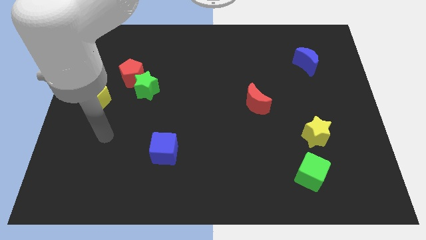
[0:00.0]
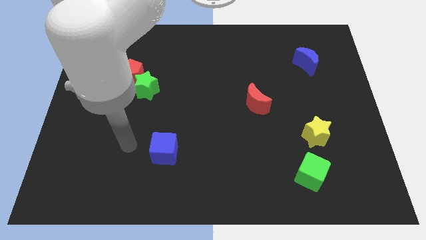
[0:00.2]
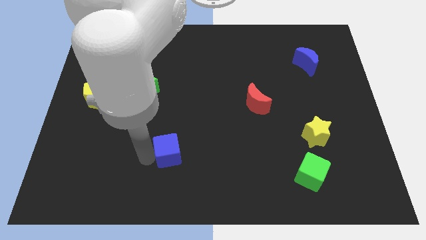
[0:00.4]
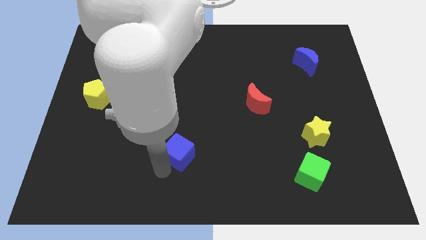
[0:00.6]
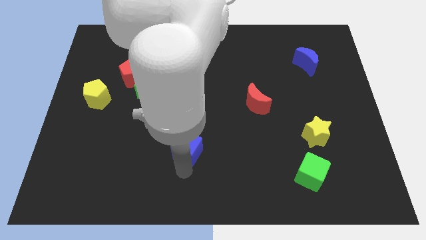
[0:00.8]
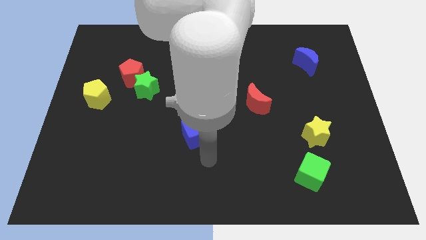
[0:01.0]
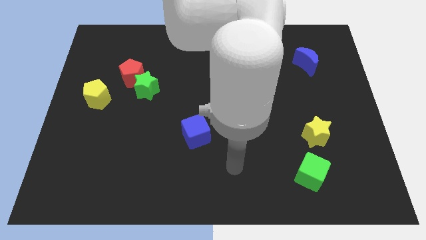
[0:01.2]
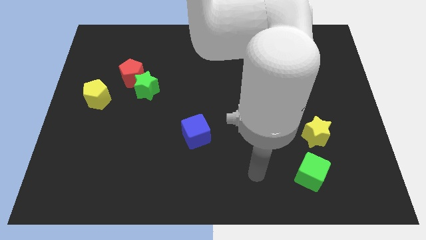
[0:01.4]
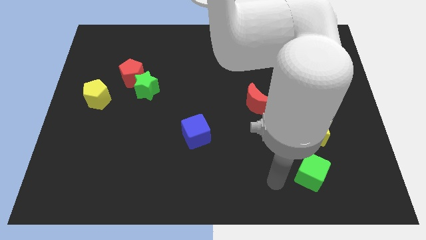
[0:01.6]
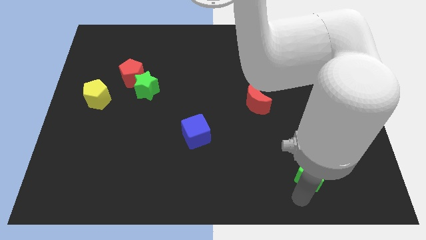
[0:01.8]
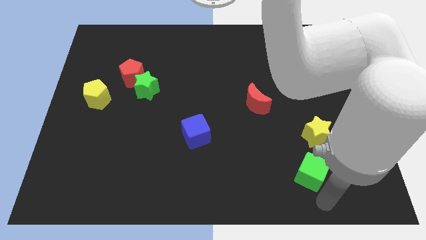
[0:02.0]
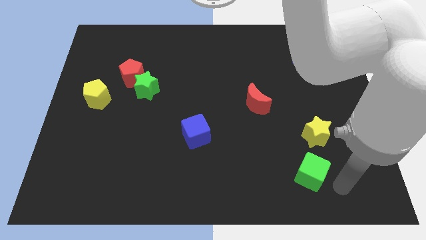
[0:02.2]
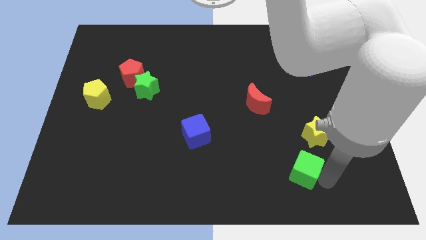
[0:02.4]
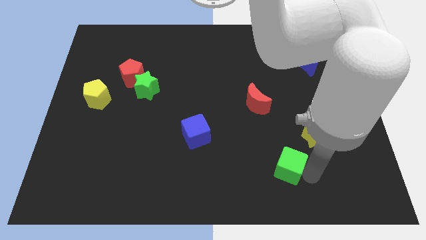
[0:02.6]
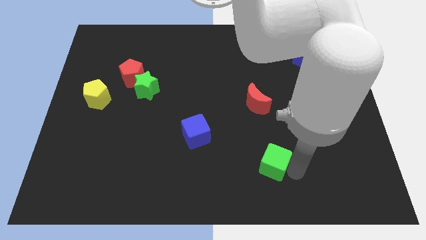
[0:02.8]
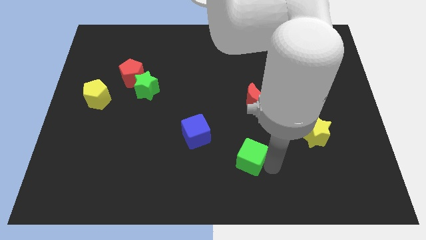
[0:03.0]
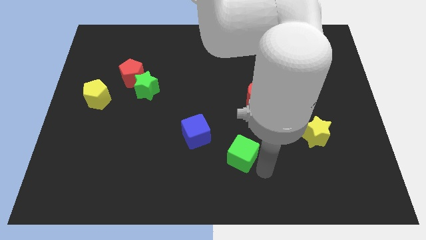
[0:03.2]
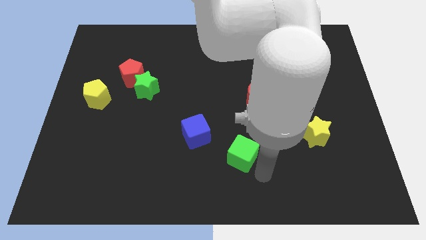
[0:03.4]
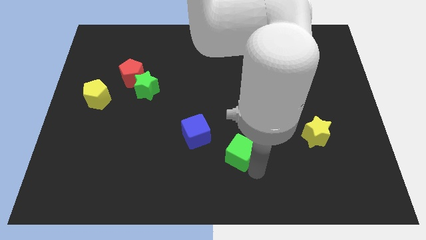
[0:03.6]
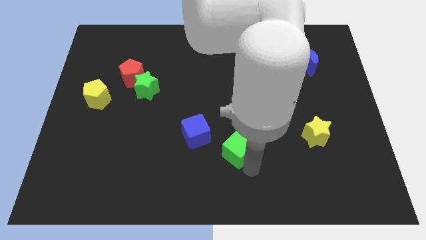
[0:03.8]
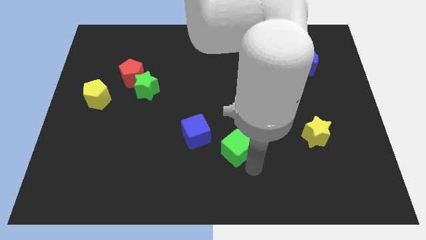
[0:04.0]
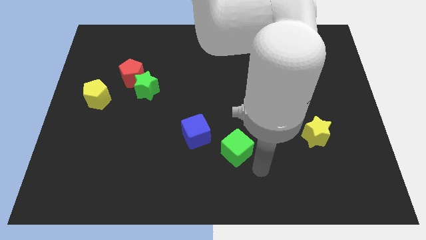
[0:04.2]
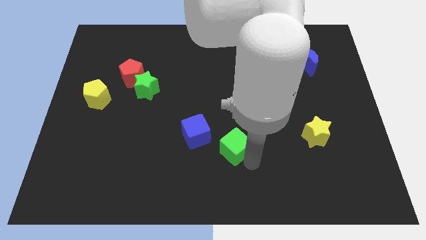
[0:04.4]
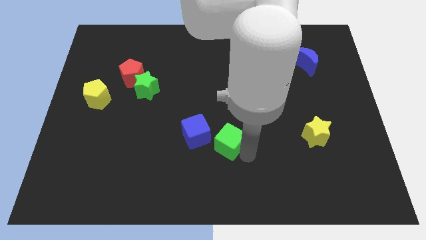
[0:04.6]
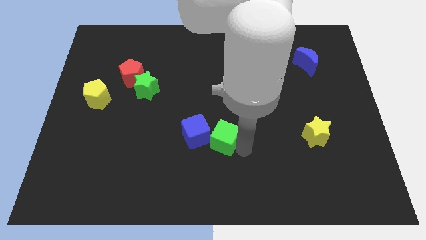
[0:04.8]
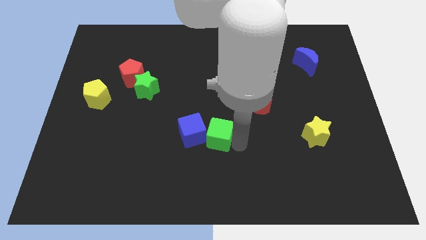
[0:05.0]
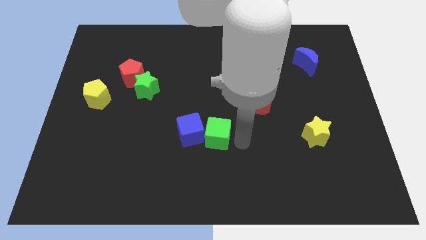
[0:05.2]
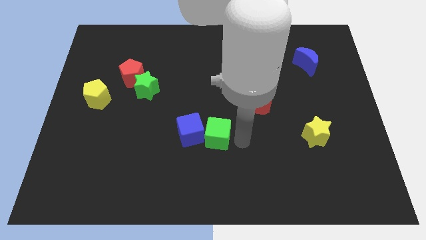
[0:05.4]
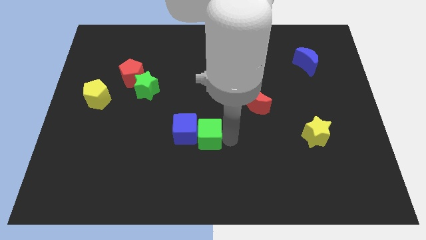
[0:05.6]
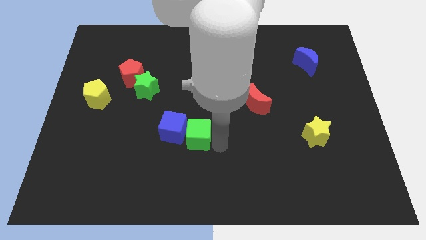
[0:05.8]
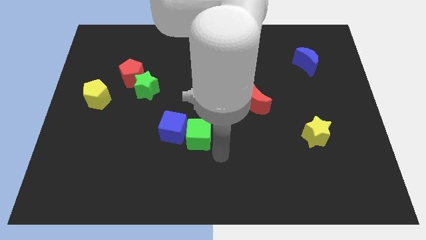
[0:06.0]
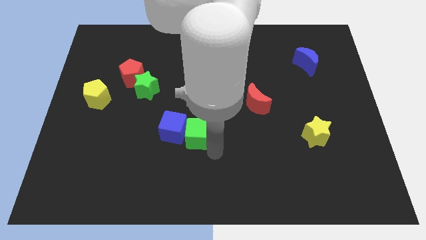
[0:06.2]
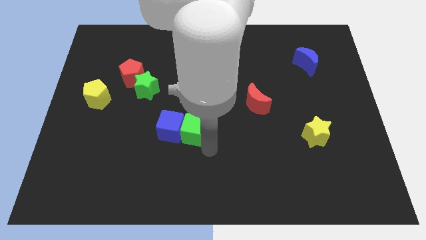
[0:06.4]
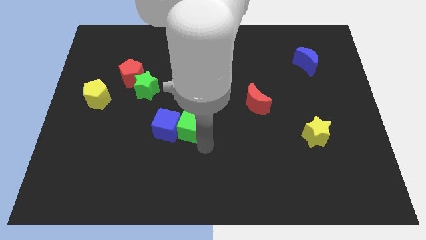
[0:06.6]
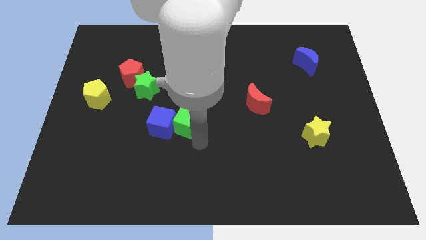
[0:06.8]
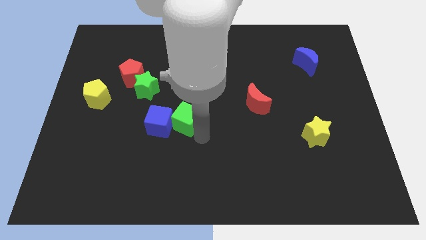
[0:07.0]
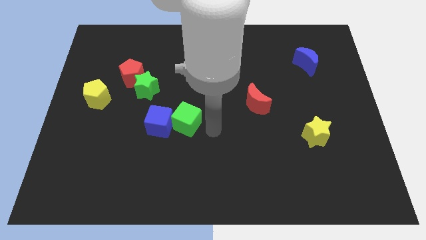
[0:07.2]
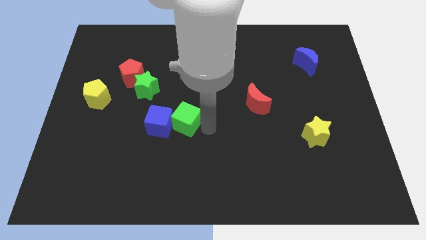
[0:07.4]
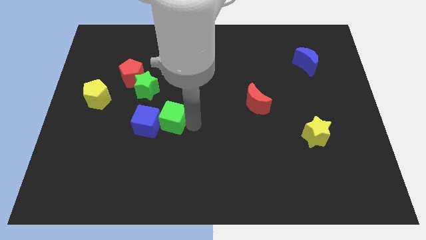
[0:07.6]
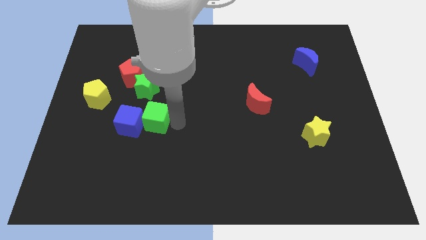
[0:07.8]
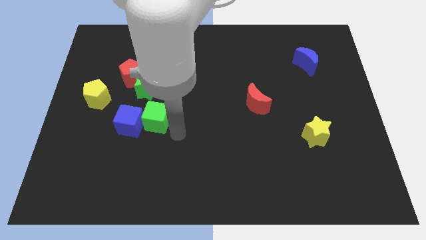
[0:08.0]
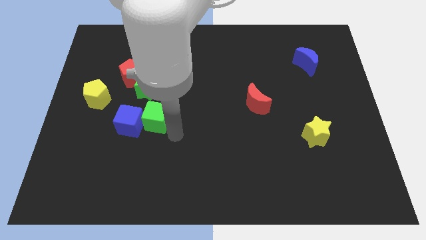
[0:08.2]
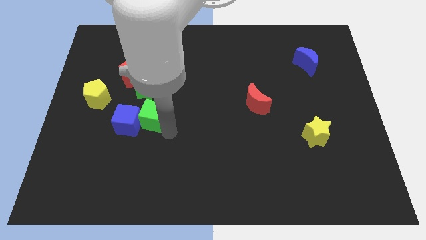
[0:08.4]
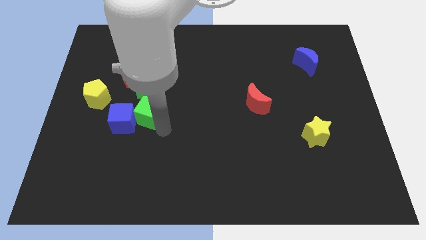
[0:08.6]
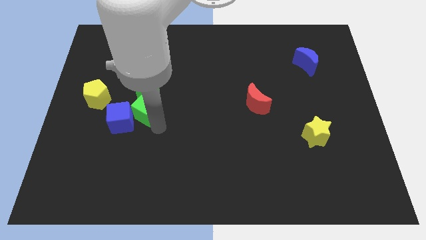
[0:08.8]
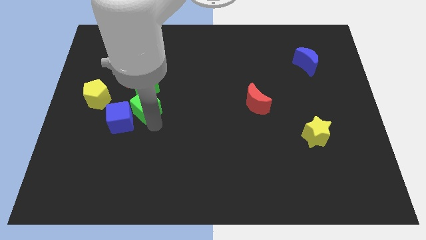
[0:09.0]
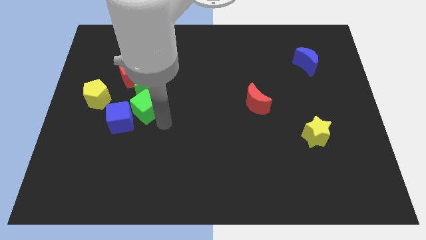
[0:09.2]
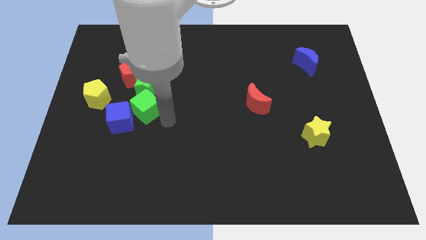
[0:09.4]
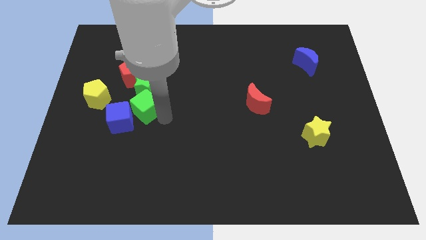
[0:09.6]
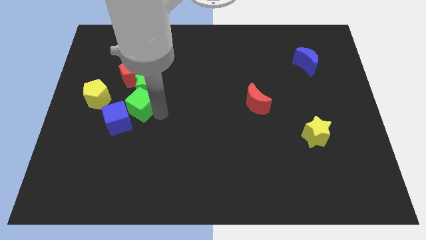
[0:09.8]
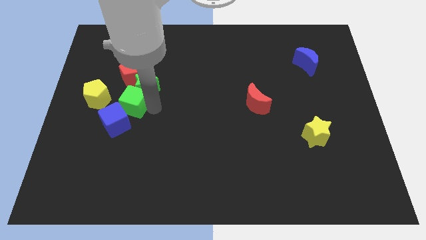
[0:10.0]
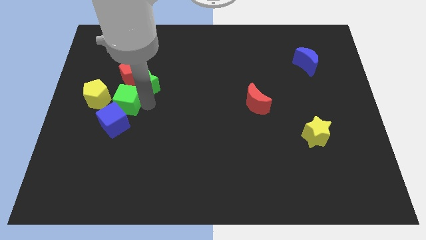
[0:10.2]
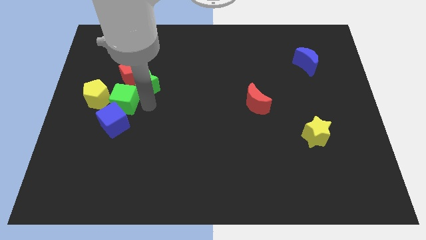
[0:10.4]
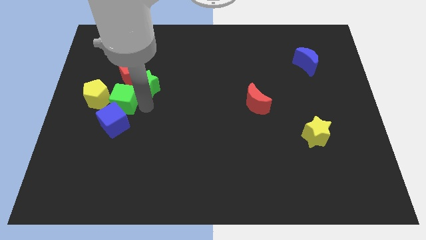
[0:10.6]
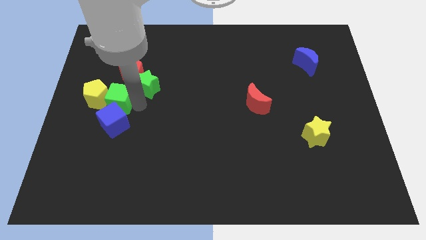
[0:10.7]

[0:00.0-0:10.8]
put the green cube next to the yellow pentagon

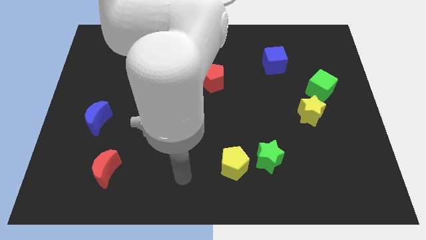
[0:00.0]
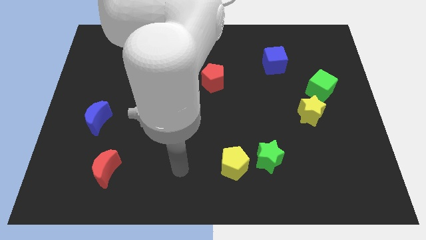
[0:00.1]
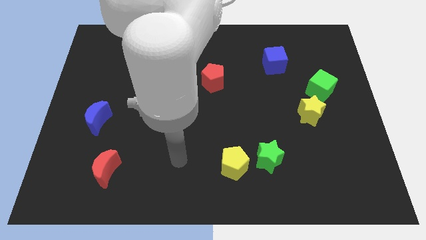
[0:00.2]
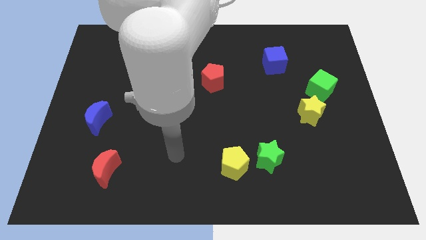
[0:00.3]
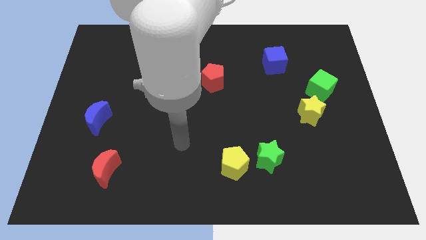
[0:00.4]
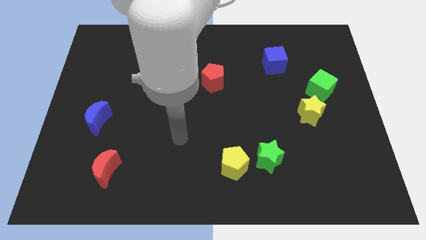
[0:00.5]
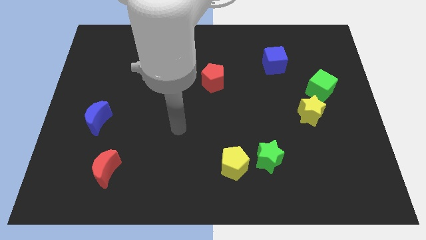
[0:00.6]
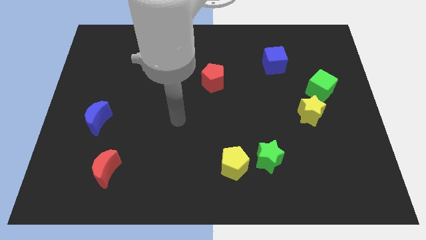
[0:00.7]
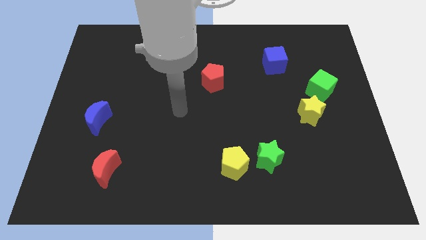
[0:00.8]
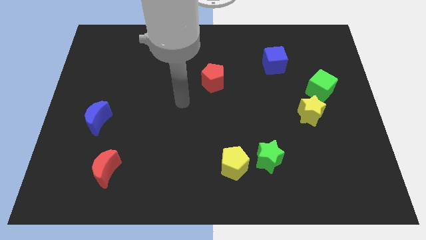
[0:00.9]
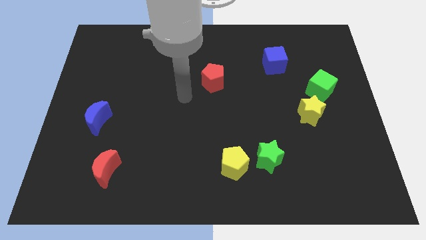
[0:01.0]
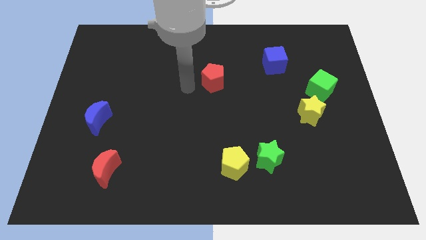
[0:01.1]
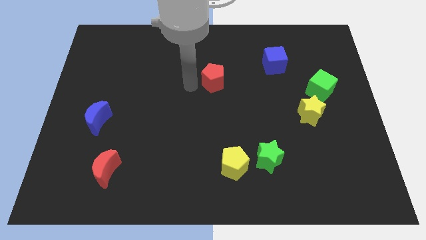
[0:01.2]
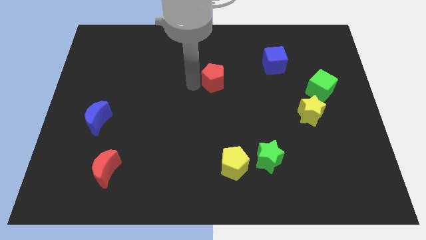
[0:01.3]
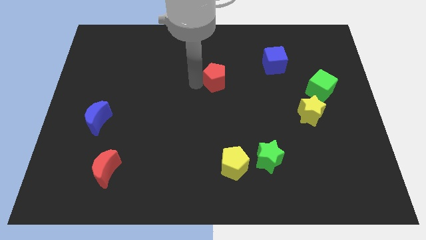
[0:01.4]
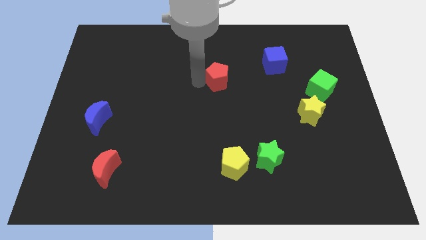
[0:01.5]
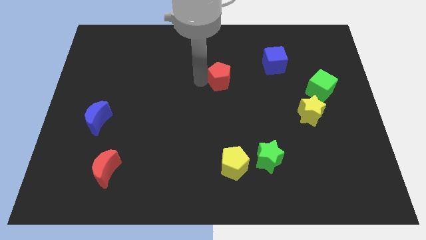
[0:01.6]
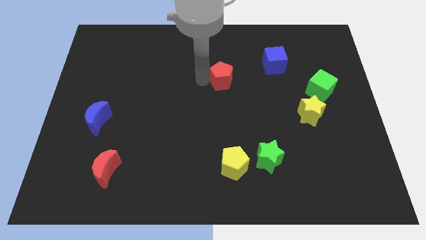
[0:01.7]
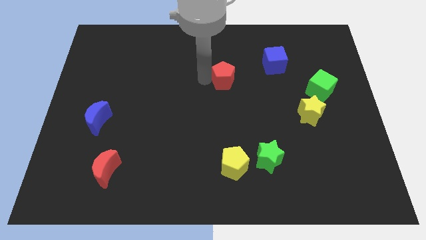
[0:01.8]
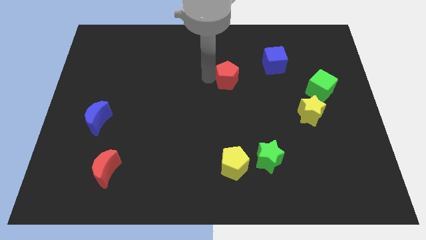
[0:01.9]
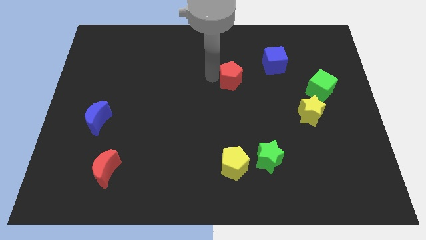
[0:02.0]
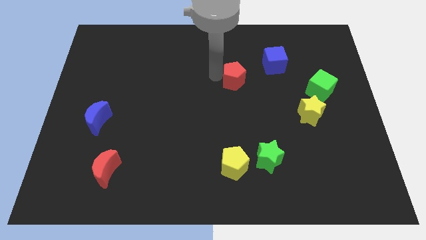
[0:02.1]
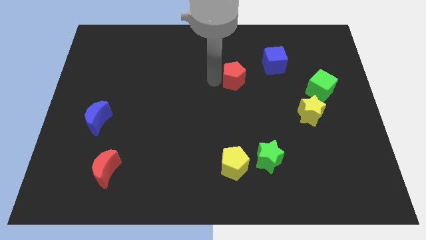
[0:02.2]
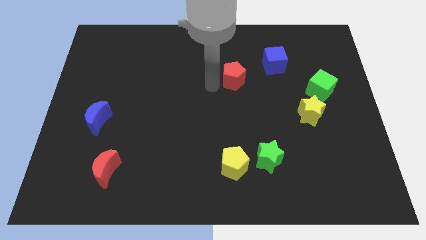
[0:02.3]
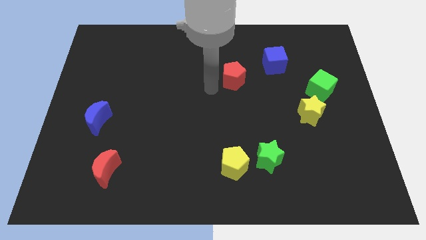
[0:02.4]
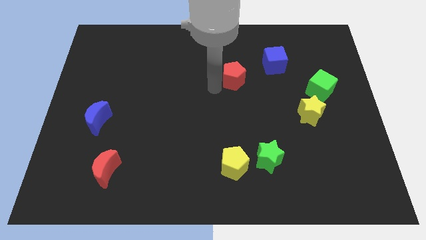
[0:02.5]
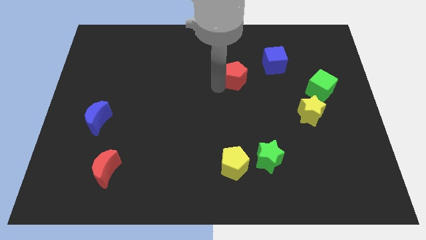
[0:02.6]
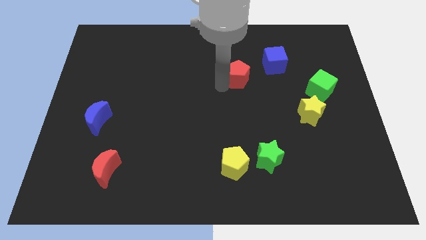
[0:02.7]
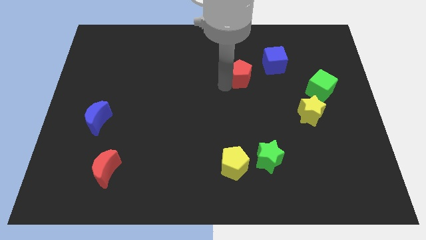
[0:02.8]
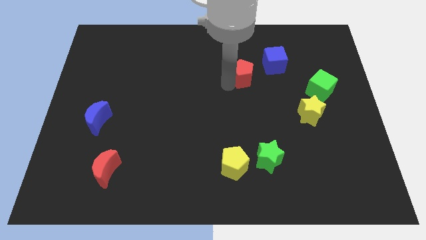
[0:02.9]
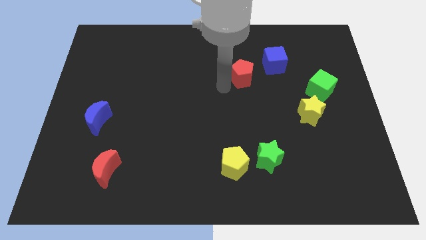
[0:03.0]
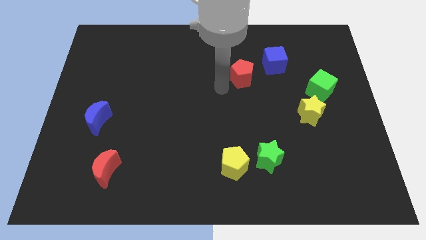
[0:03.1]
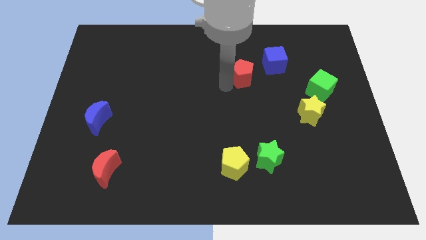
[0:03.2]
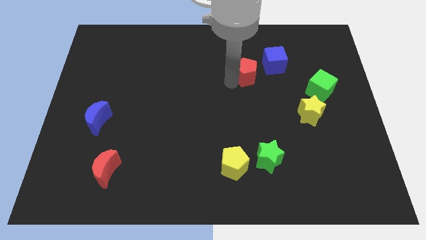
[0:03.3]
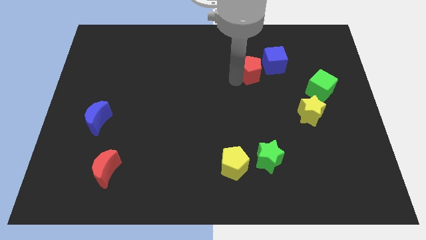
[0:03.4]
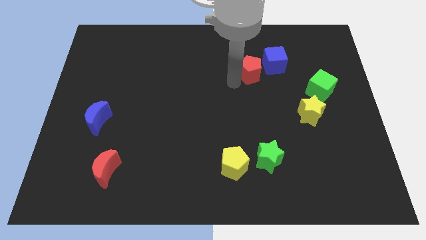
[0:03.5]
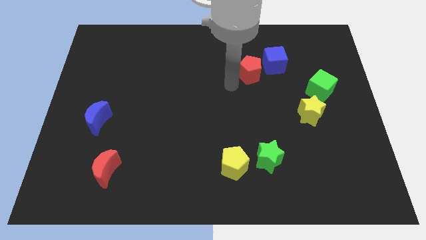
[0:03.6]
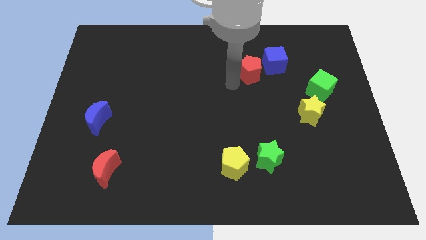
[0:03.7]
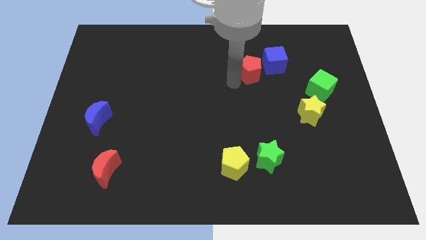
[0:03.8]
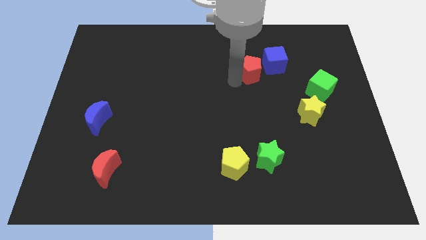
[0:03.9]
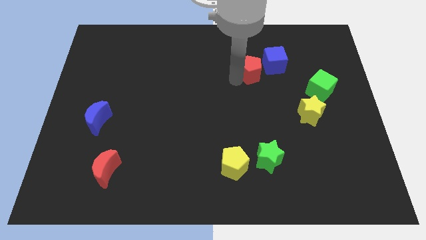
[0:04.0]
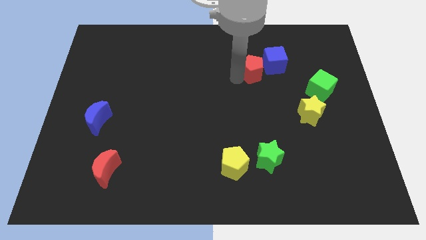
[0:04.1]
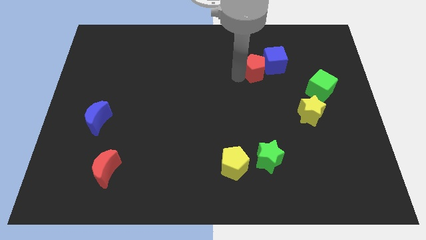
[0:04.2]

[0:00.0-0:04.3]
put the red pentagon next to the blue cube
